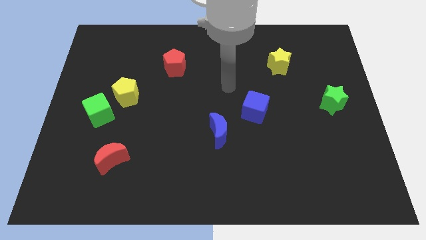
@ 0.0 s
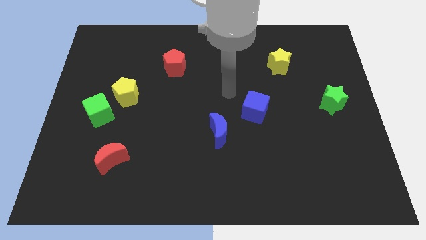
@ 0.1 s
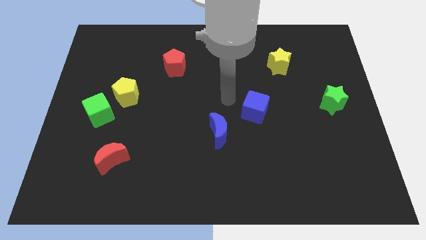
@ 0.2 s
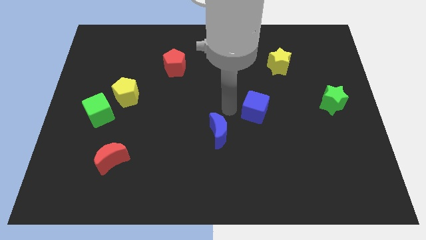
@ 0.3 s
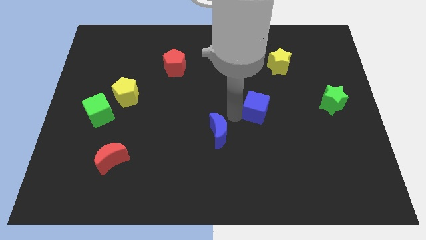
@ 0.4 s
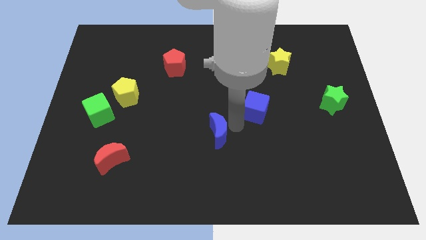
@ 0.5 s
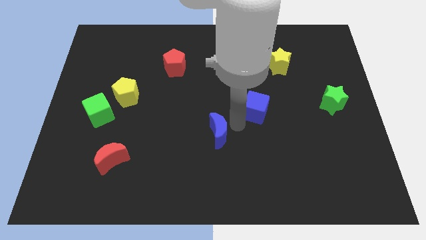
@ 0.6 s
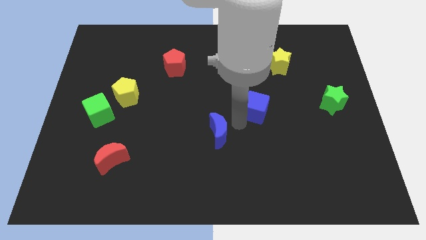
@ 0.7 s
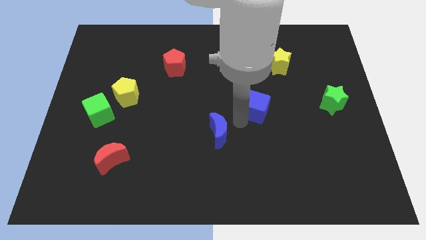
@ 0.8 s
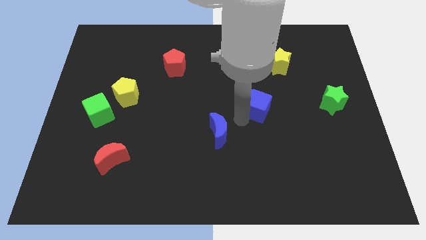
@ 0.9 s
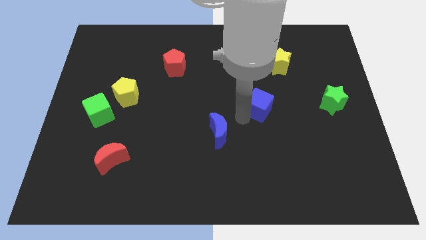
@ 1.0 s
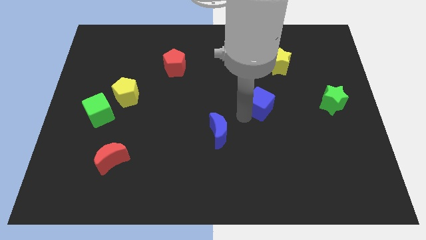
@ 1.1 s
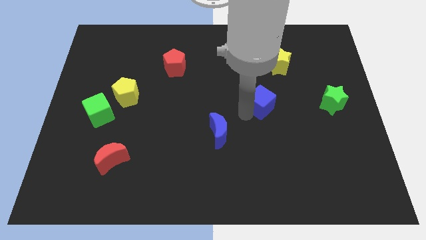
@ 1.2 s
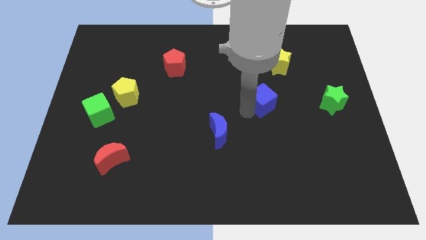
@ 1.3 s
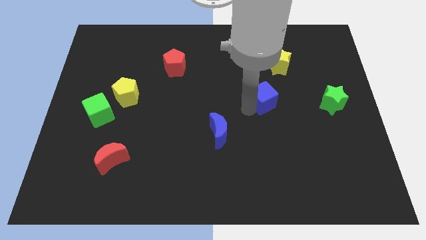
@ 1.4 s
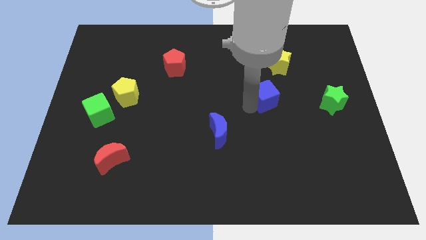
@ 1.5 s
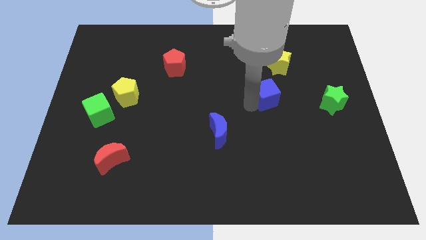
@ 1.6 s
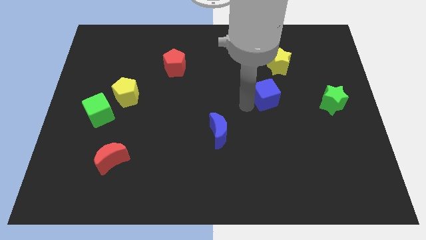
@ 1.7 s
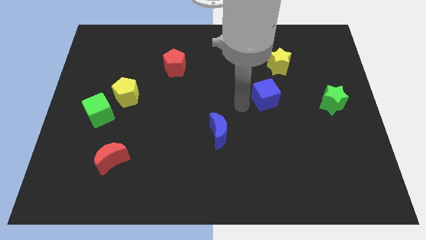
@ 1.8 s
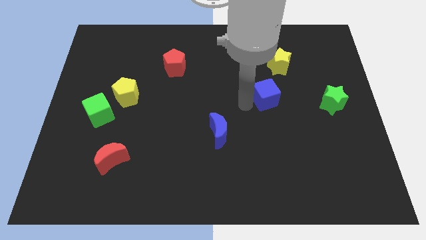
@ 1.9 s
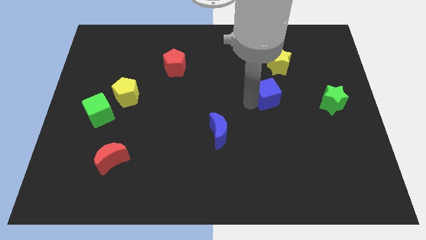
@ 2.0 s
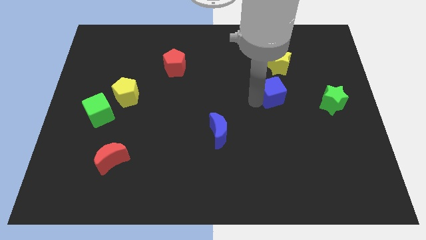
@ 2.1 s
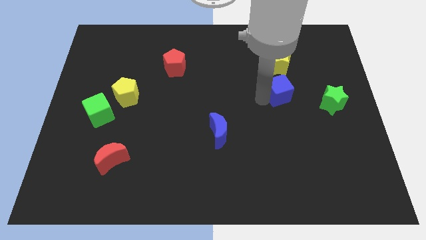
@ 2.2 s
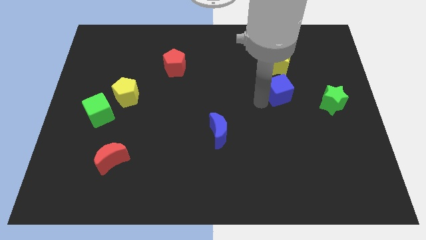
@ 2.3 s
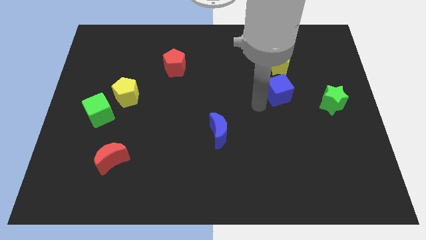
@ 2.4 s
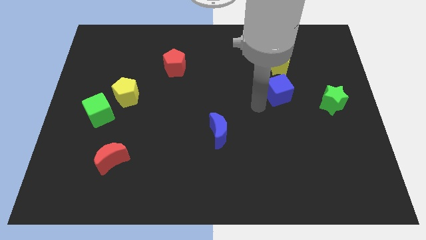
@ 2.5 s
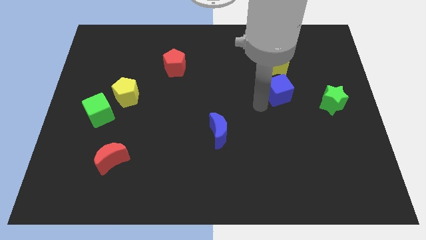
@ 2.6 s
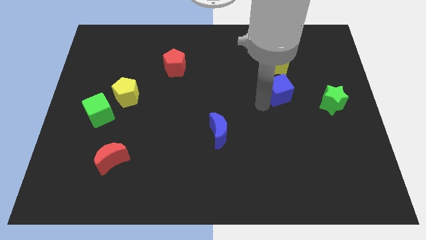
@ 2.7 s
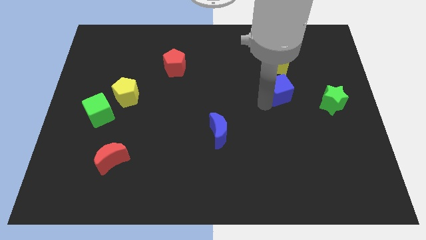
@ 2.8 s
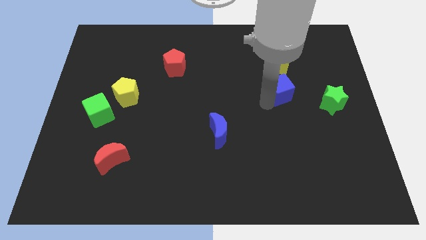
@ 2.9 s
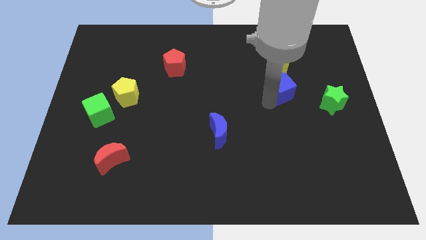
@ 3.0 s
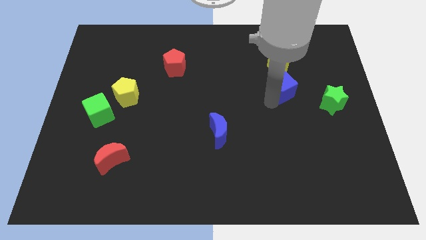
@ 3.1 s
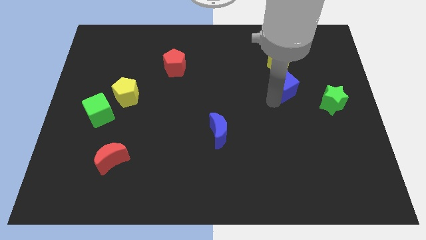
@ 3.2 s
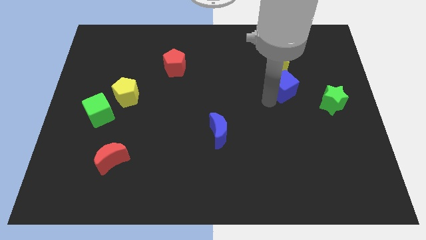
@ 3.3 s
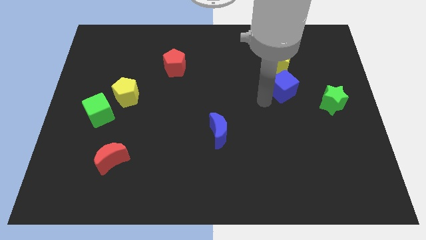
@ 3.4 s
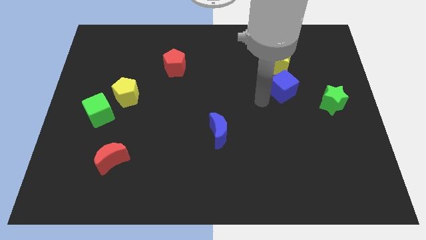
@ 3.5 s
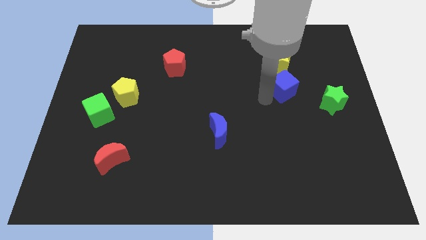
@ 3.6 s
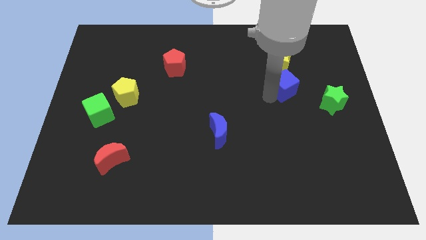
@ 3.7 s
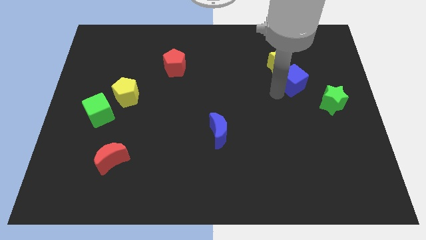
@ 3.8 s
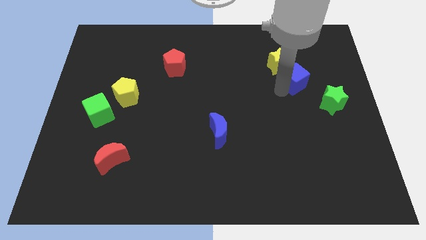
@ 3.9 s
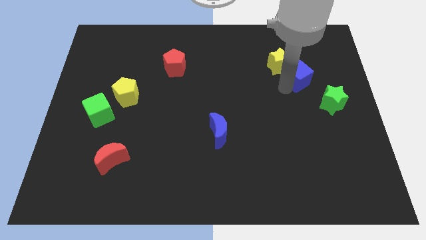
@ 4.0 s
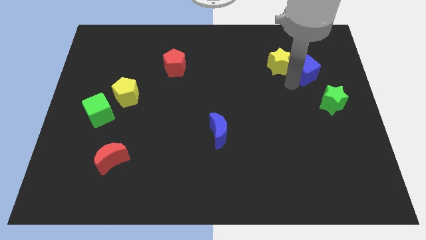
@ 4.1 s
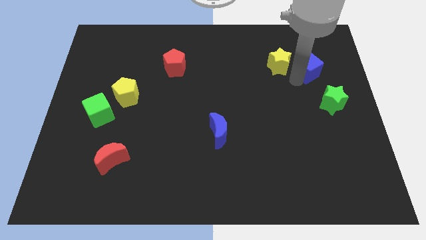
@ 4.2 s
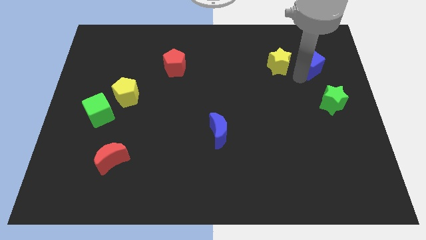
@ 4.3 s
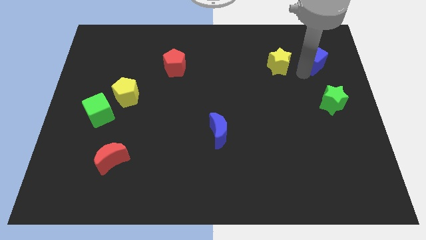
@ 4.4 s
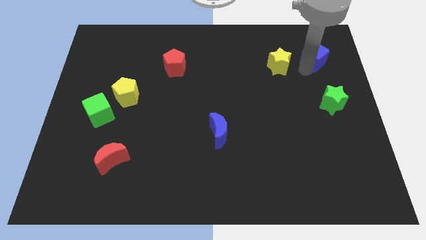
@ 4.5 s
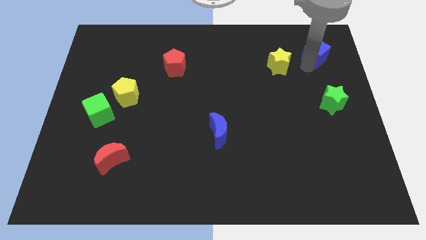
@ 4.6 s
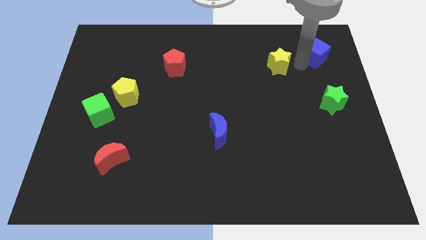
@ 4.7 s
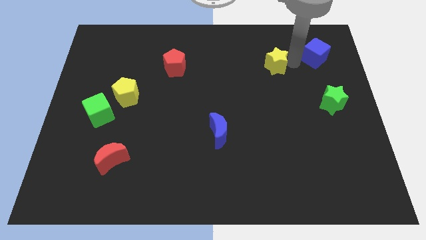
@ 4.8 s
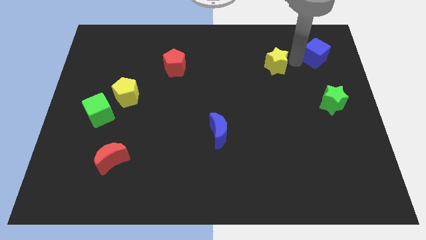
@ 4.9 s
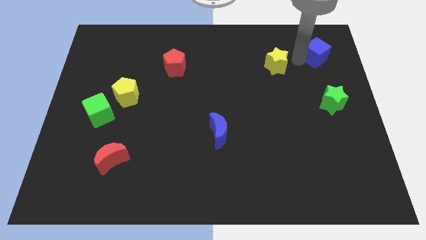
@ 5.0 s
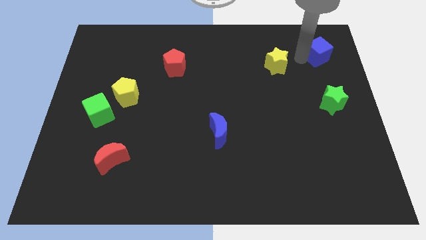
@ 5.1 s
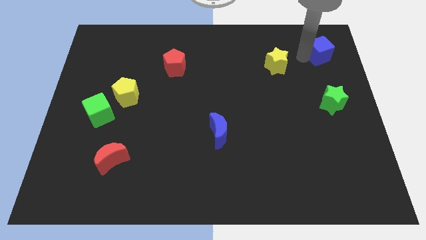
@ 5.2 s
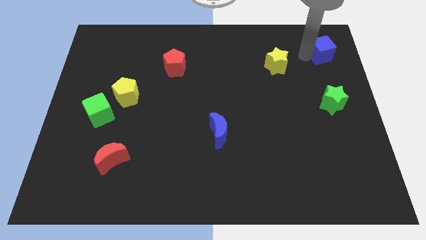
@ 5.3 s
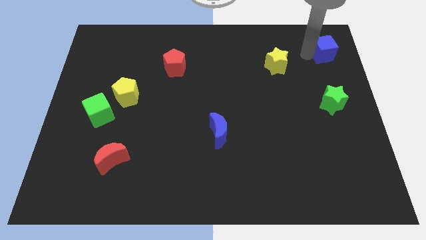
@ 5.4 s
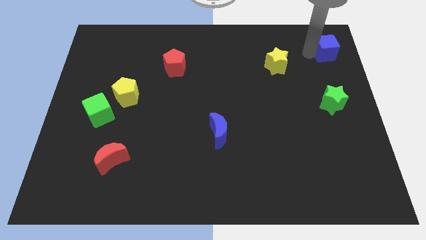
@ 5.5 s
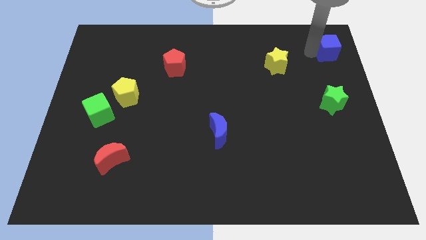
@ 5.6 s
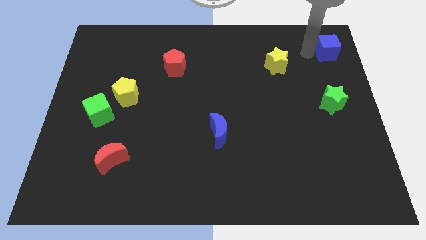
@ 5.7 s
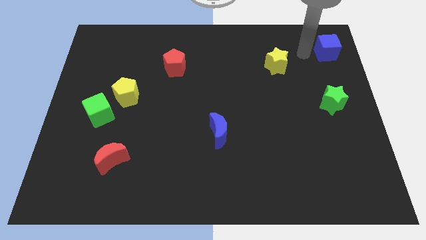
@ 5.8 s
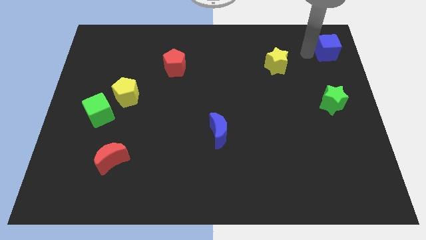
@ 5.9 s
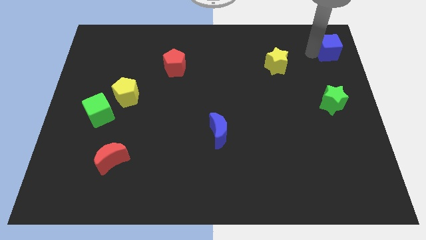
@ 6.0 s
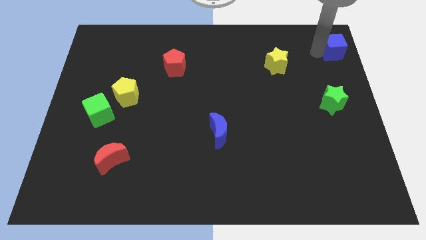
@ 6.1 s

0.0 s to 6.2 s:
move the blue cube to the top right corner
